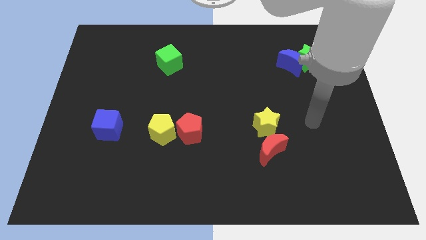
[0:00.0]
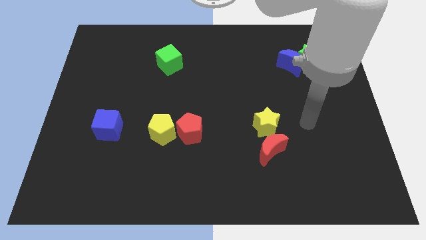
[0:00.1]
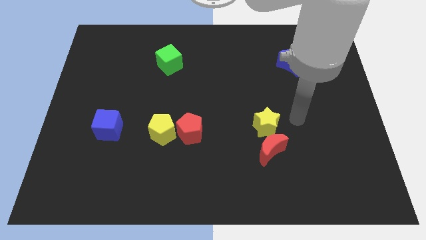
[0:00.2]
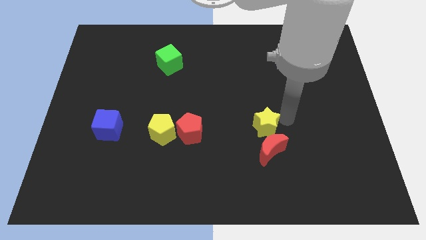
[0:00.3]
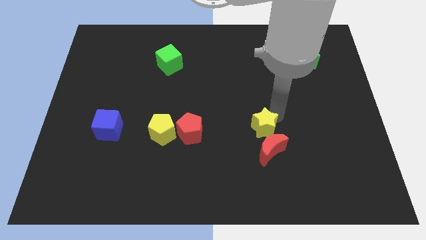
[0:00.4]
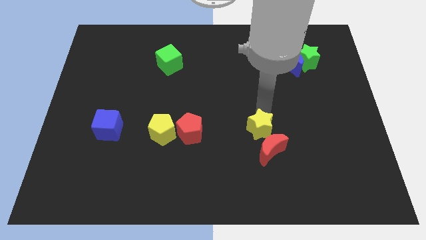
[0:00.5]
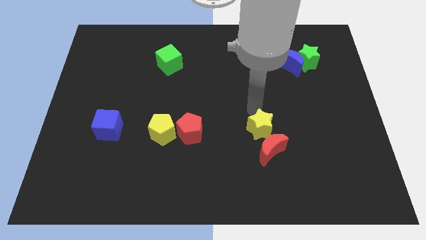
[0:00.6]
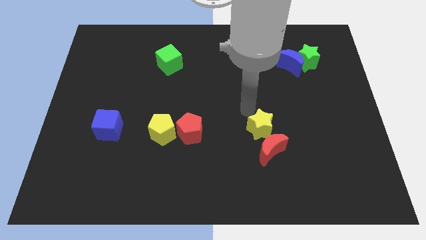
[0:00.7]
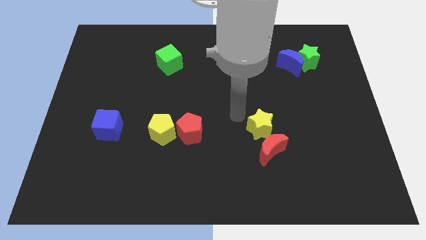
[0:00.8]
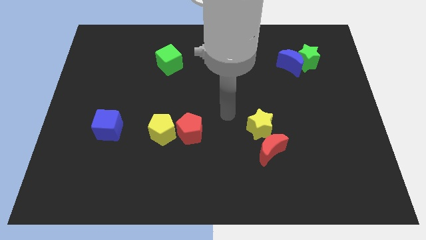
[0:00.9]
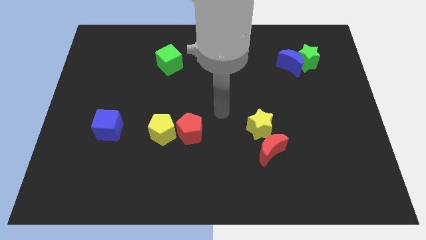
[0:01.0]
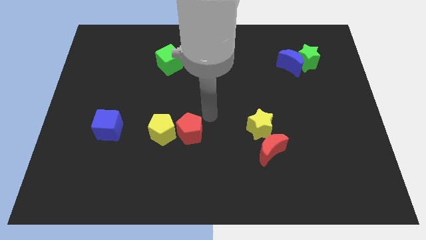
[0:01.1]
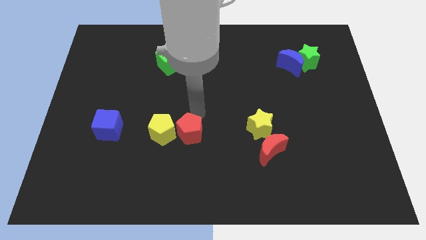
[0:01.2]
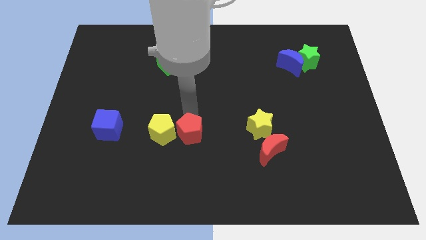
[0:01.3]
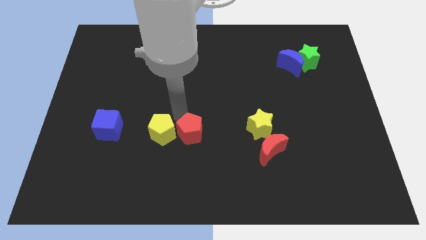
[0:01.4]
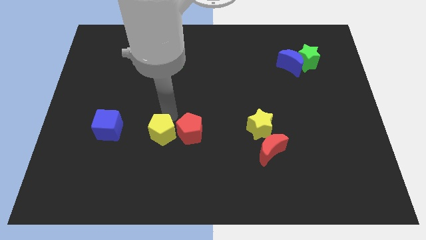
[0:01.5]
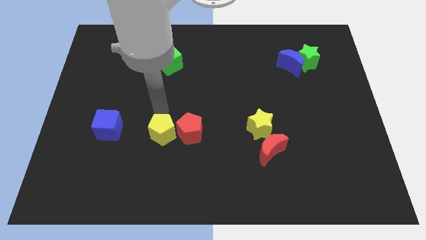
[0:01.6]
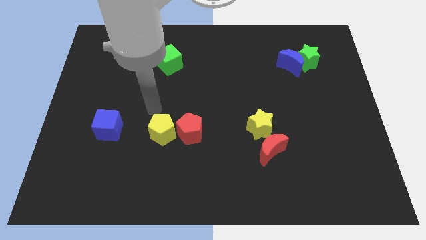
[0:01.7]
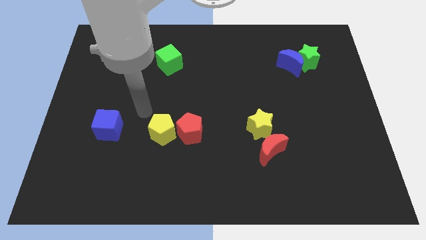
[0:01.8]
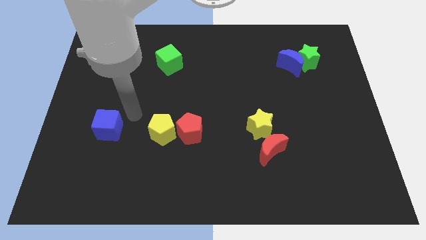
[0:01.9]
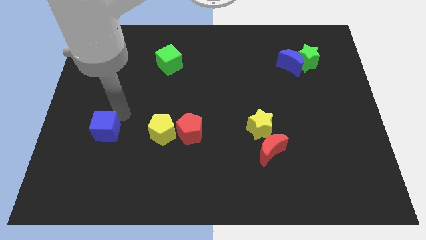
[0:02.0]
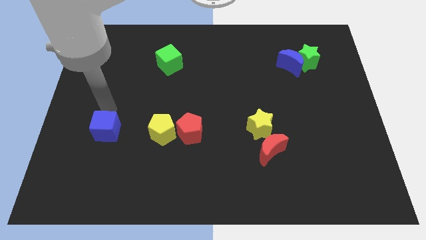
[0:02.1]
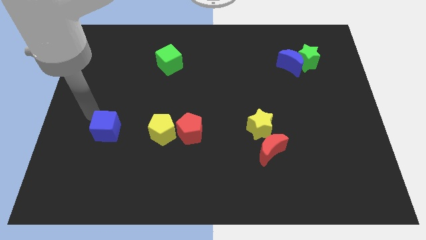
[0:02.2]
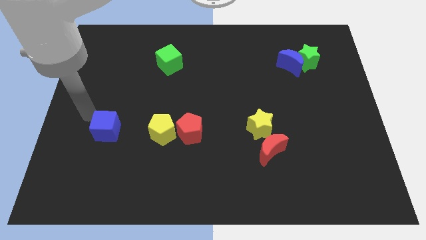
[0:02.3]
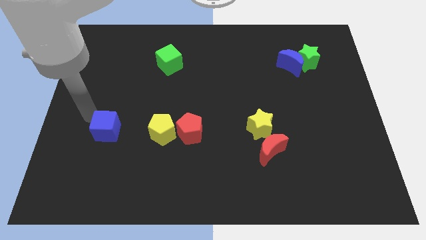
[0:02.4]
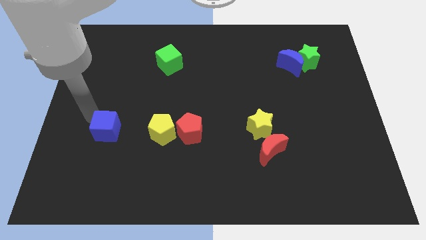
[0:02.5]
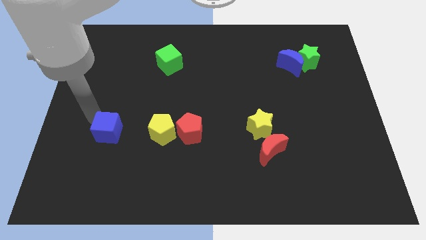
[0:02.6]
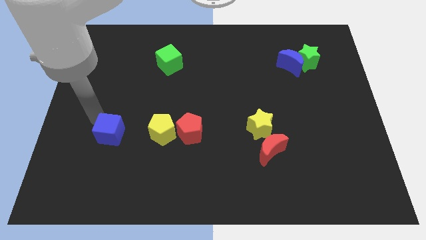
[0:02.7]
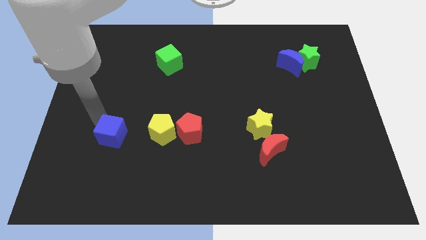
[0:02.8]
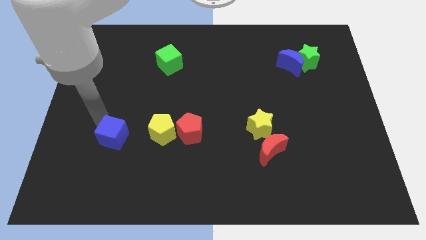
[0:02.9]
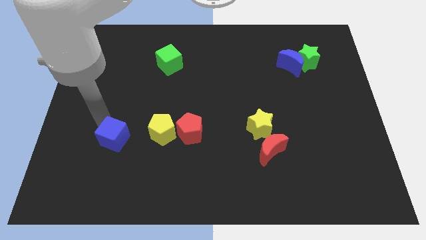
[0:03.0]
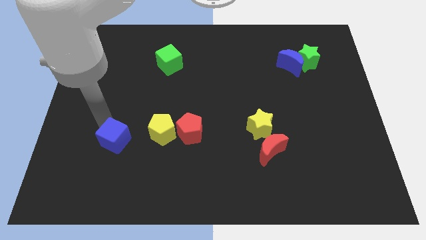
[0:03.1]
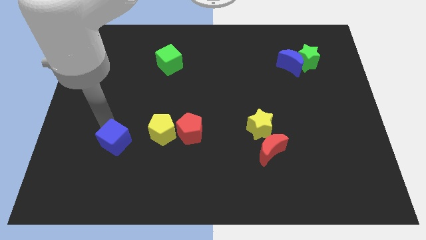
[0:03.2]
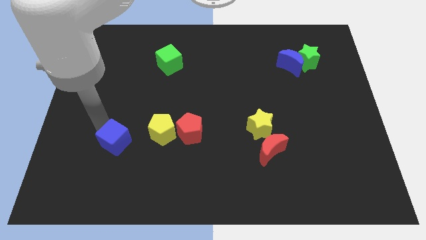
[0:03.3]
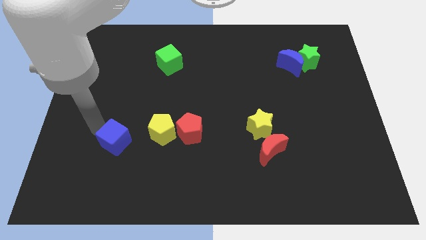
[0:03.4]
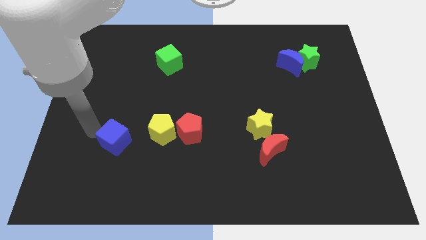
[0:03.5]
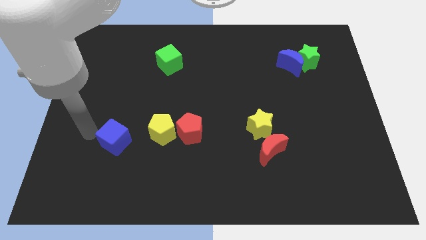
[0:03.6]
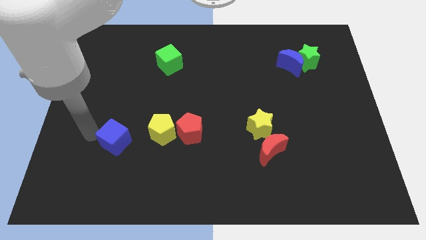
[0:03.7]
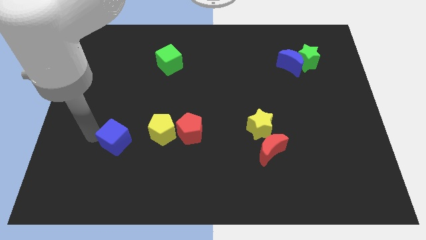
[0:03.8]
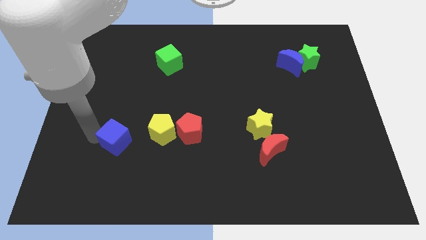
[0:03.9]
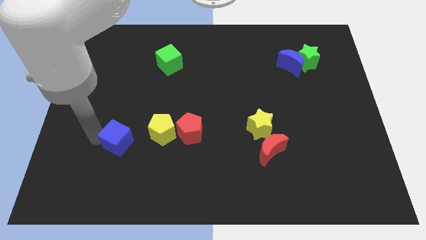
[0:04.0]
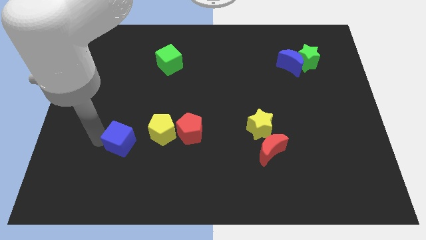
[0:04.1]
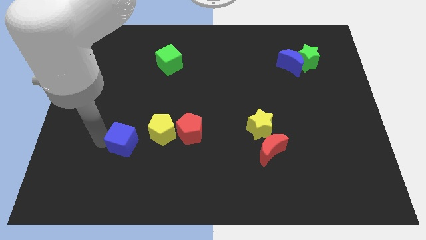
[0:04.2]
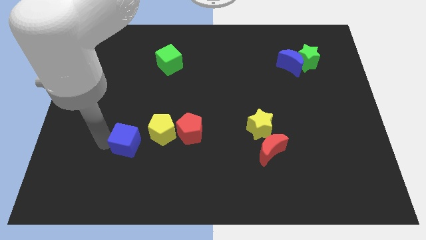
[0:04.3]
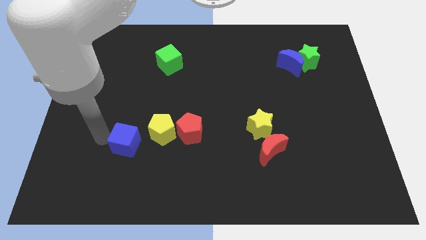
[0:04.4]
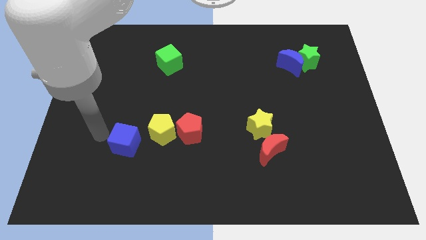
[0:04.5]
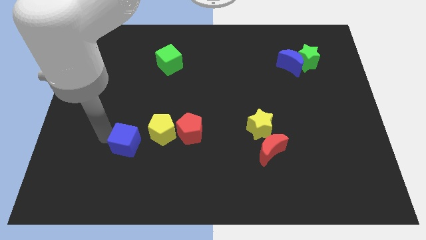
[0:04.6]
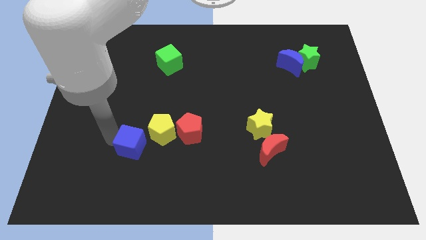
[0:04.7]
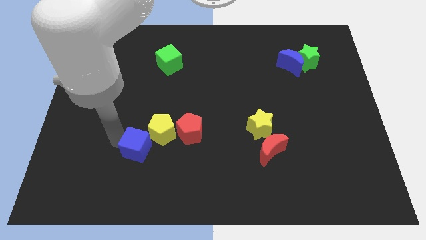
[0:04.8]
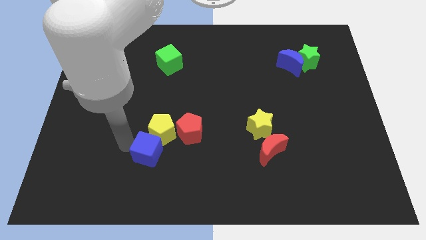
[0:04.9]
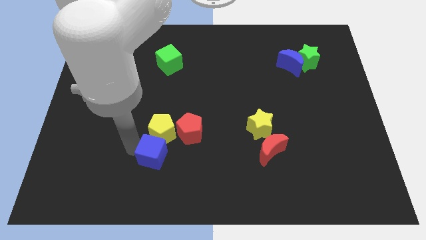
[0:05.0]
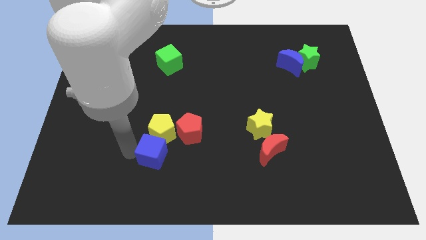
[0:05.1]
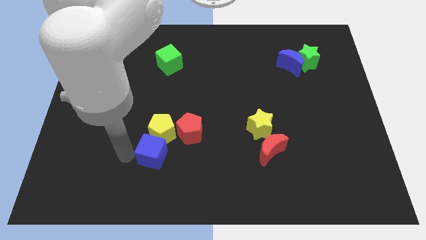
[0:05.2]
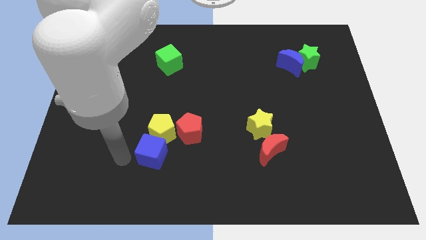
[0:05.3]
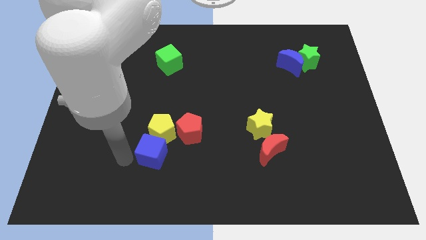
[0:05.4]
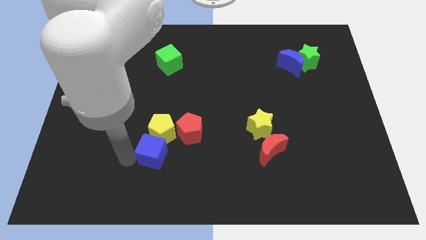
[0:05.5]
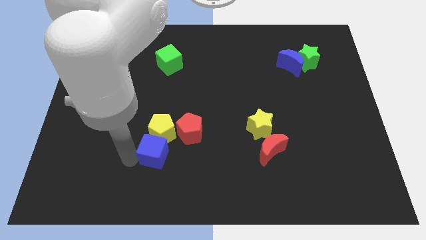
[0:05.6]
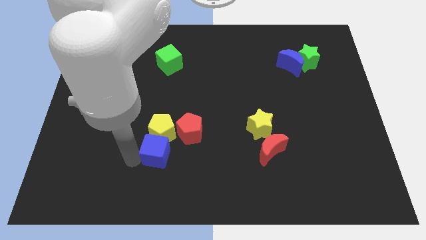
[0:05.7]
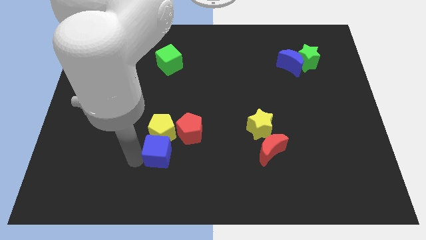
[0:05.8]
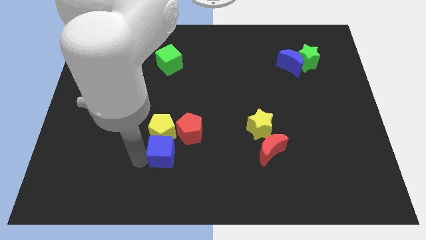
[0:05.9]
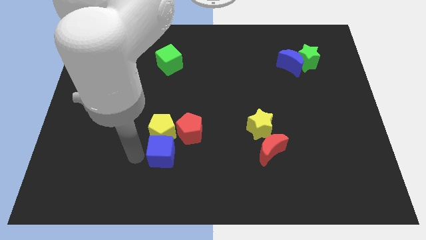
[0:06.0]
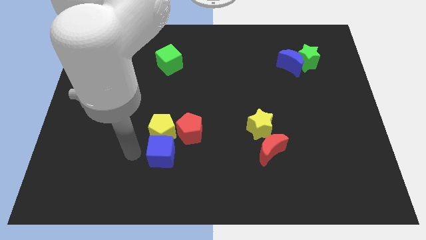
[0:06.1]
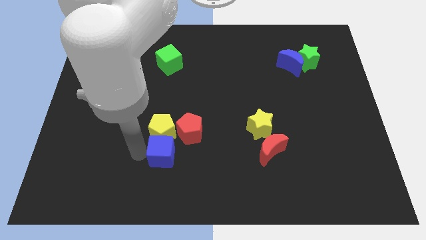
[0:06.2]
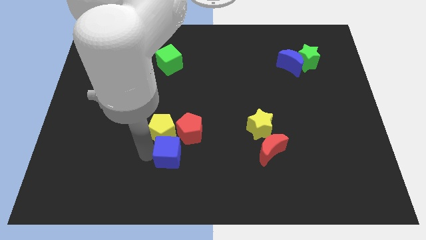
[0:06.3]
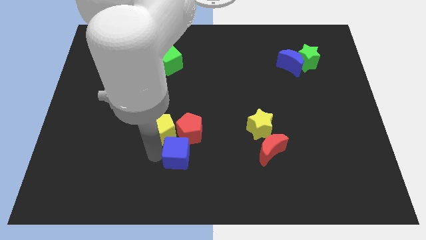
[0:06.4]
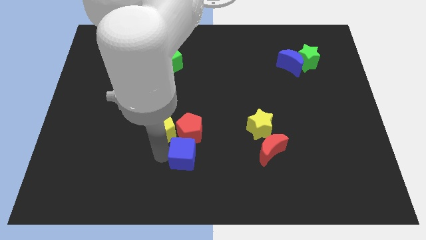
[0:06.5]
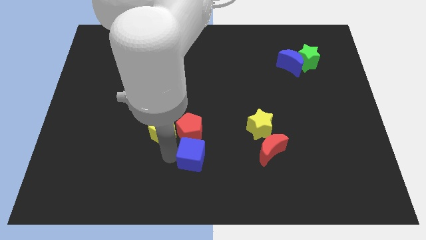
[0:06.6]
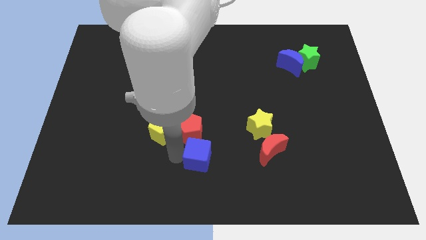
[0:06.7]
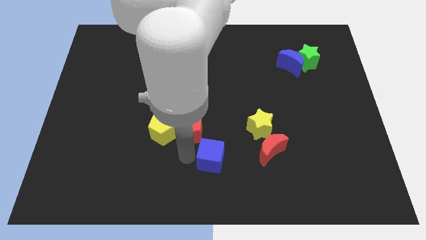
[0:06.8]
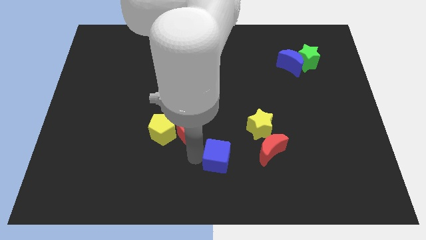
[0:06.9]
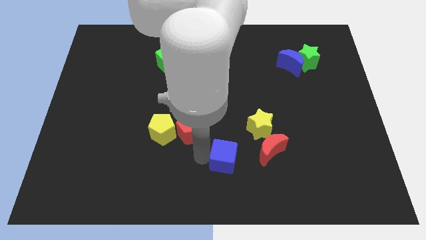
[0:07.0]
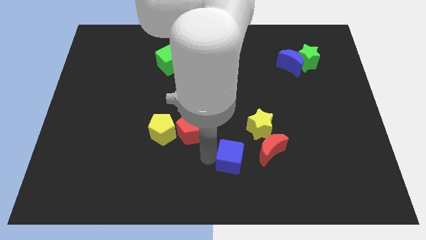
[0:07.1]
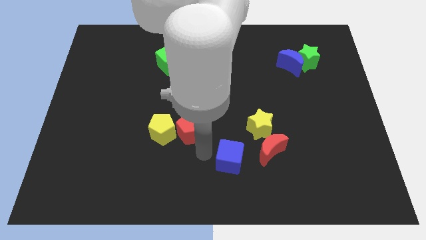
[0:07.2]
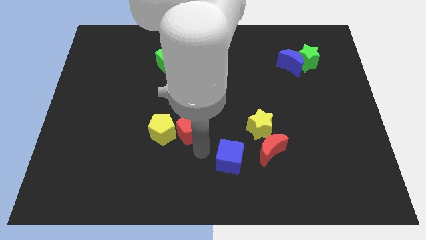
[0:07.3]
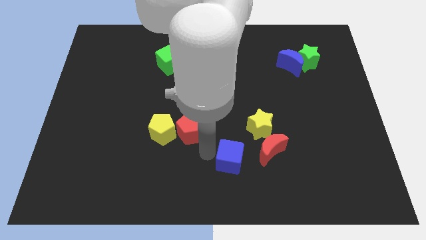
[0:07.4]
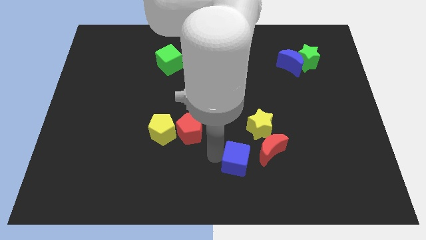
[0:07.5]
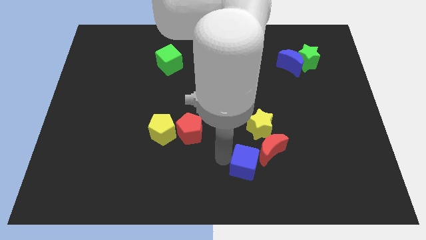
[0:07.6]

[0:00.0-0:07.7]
move the blue cube below the yellow star
